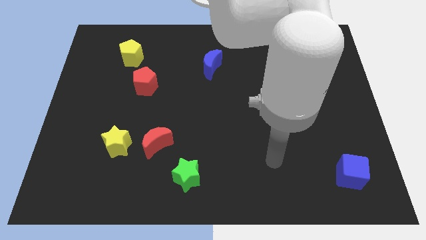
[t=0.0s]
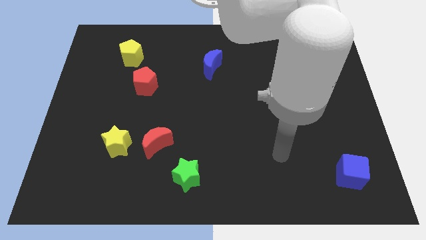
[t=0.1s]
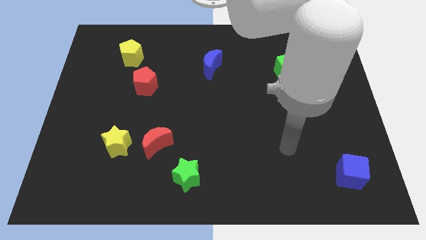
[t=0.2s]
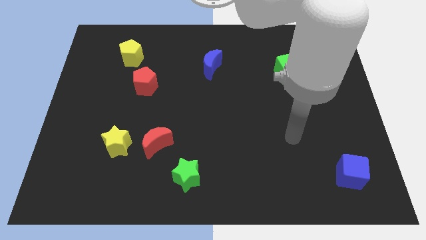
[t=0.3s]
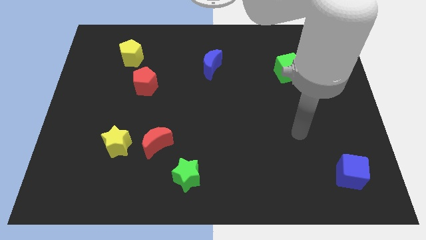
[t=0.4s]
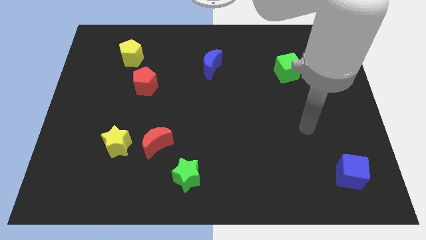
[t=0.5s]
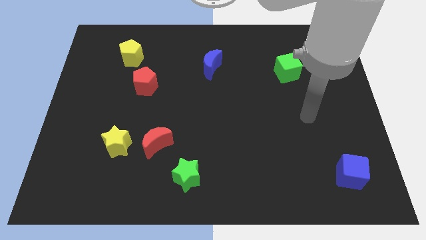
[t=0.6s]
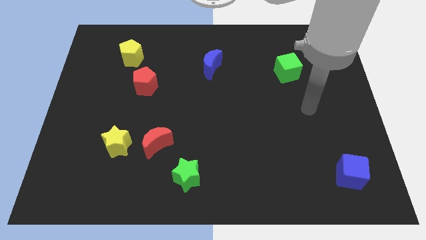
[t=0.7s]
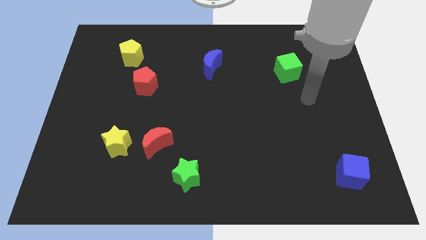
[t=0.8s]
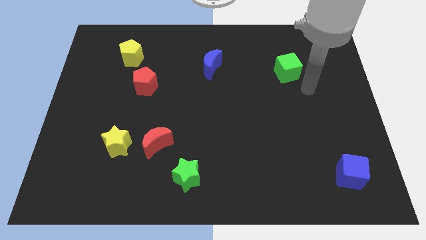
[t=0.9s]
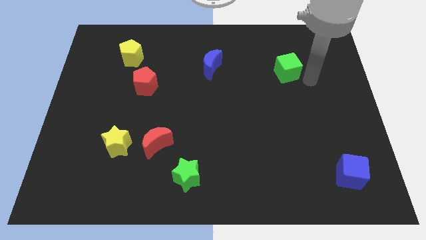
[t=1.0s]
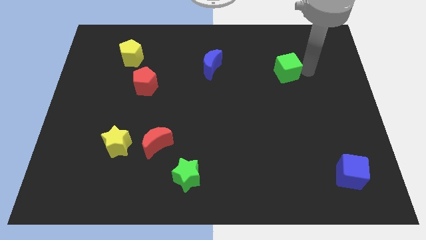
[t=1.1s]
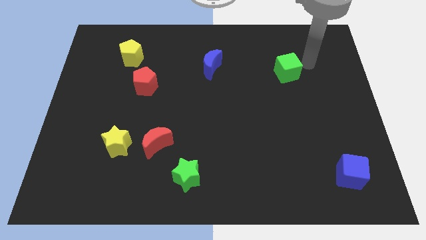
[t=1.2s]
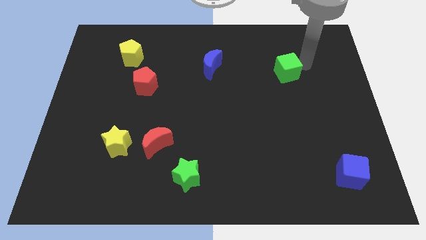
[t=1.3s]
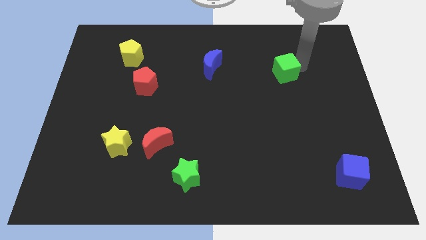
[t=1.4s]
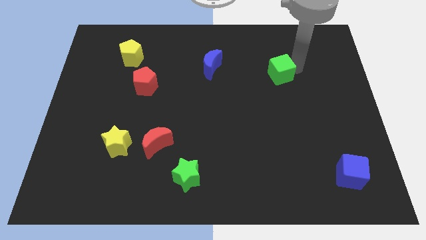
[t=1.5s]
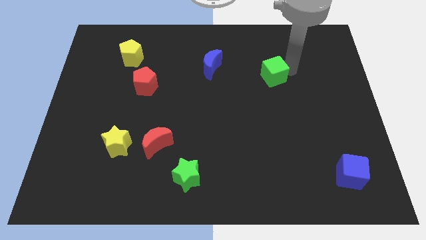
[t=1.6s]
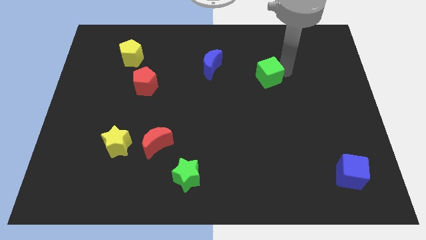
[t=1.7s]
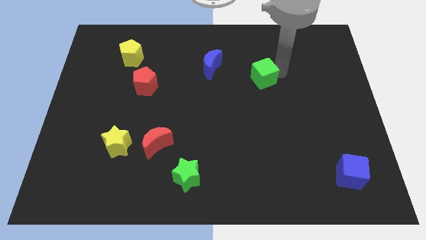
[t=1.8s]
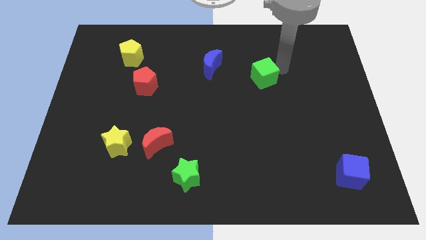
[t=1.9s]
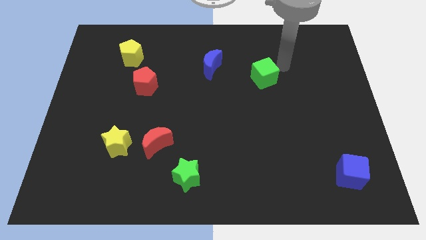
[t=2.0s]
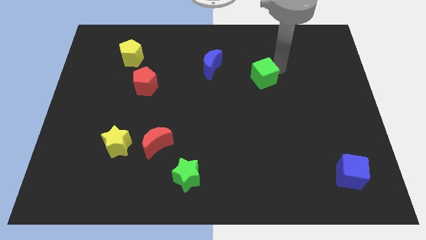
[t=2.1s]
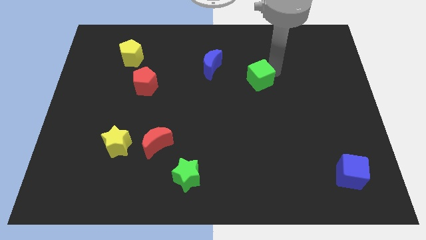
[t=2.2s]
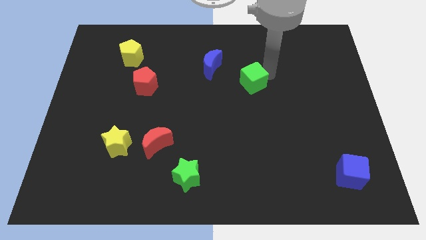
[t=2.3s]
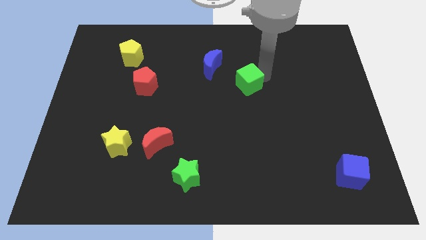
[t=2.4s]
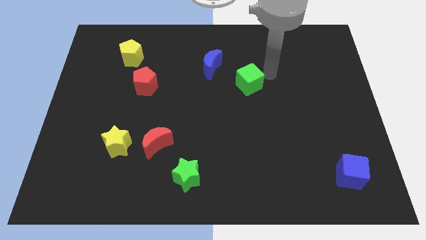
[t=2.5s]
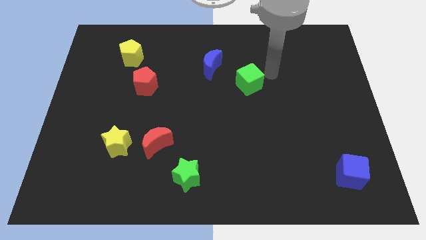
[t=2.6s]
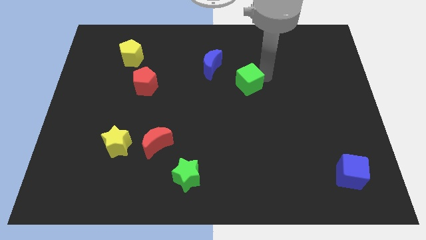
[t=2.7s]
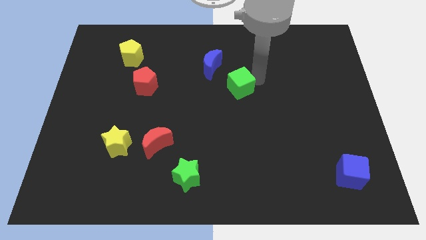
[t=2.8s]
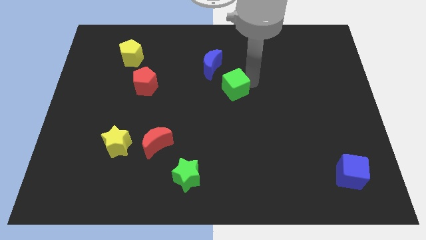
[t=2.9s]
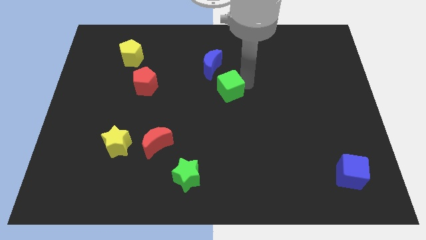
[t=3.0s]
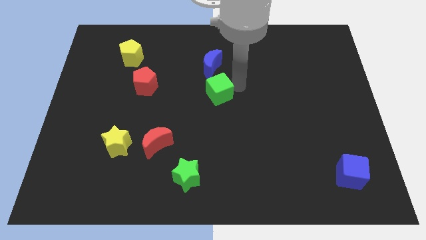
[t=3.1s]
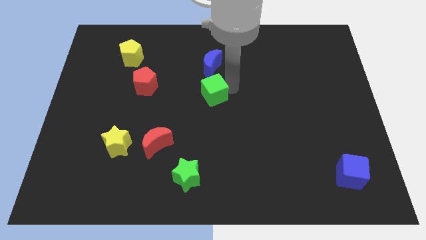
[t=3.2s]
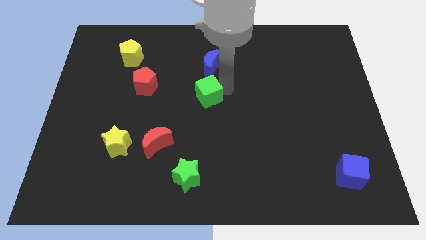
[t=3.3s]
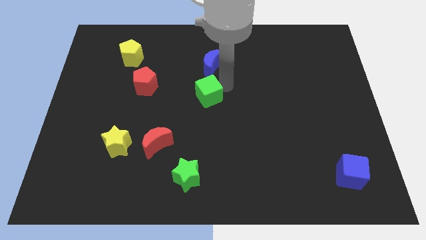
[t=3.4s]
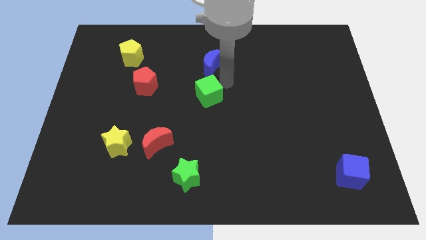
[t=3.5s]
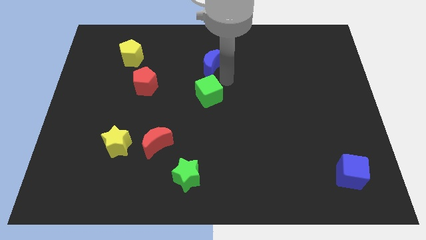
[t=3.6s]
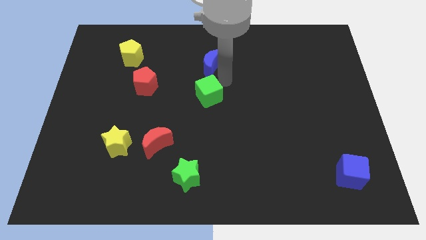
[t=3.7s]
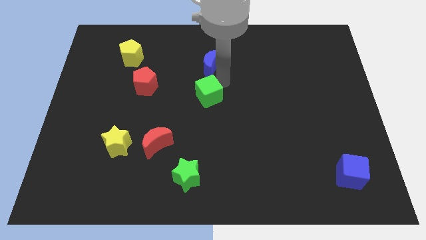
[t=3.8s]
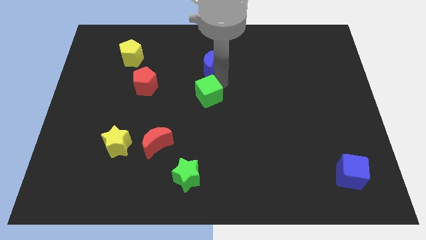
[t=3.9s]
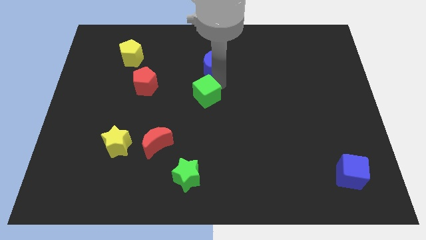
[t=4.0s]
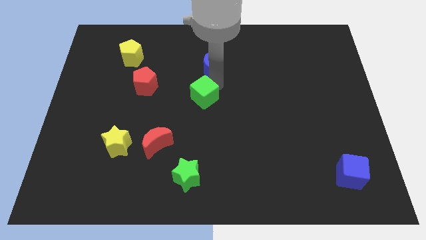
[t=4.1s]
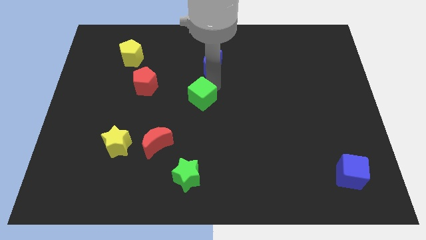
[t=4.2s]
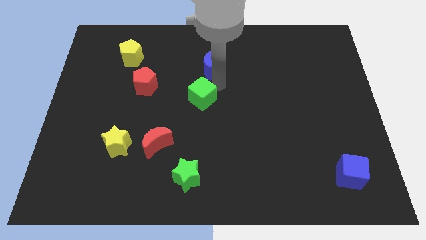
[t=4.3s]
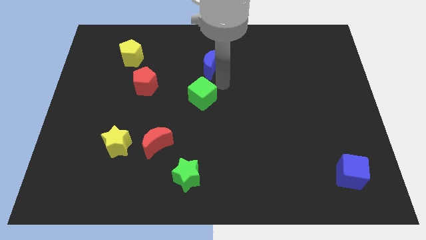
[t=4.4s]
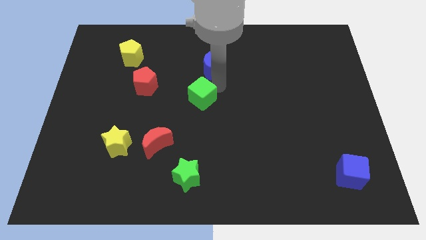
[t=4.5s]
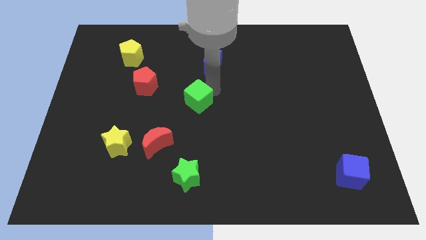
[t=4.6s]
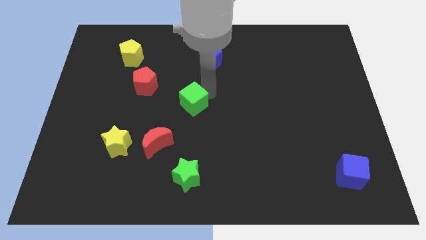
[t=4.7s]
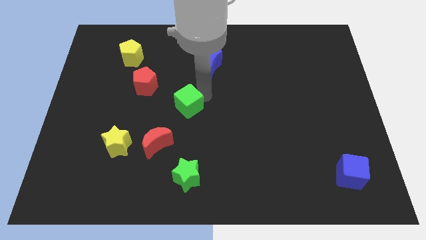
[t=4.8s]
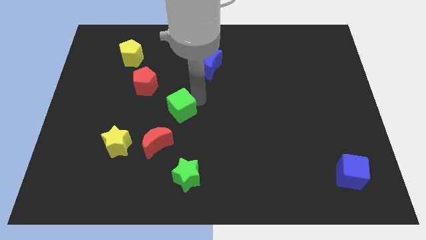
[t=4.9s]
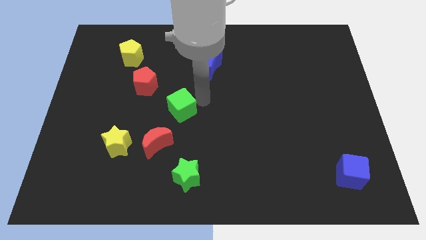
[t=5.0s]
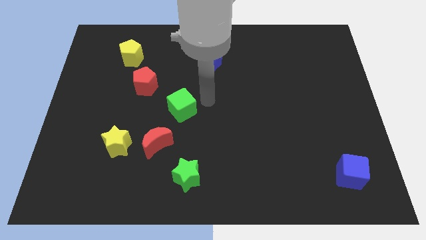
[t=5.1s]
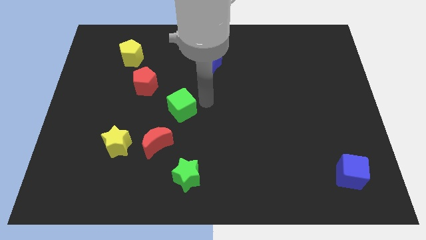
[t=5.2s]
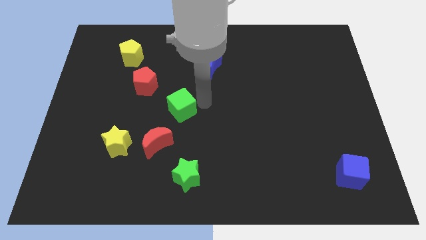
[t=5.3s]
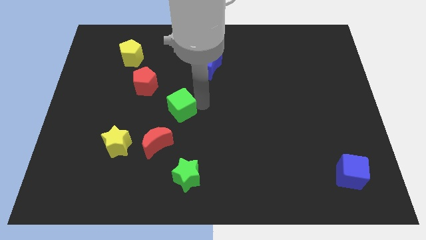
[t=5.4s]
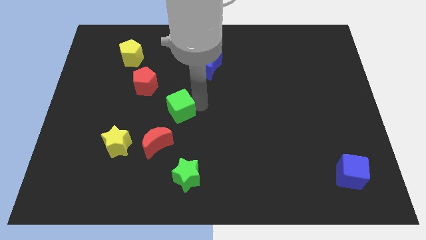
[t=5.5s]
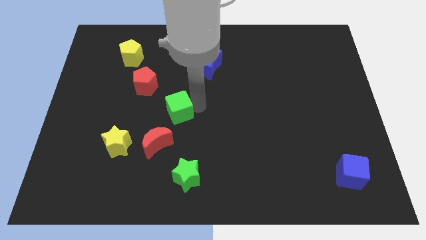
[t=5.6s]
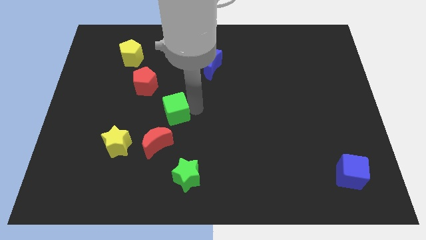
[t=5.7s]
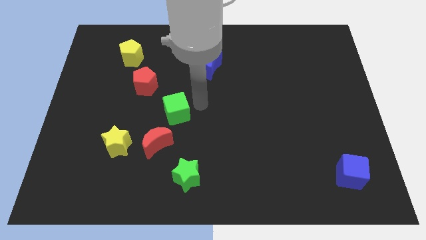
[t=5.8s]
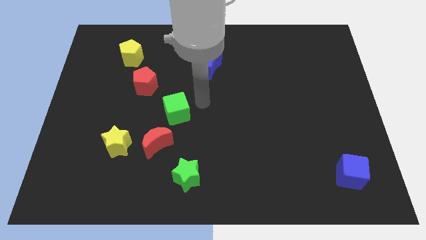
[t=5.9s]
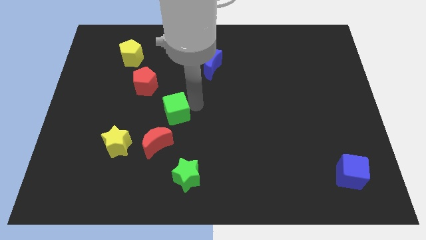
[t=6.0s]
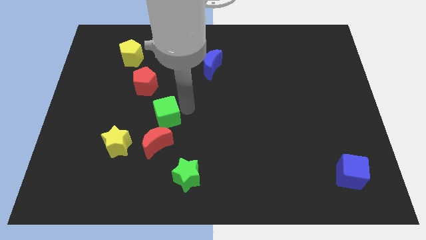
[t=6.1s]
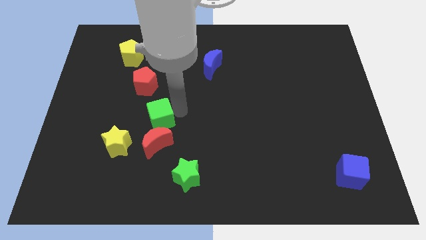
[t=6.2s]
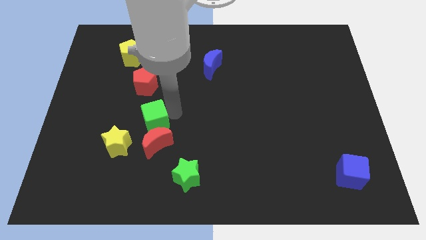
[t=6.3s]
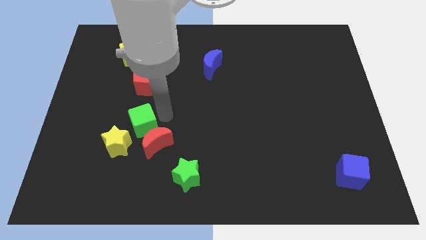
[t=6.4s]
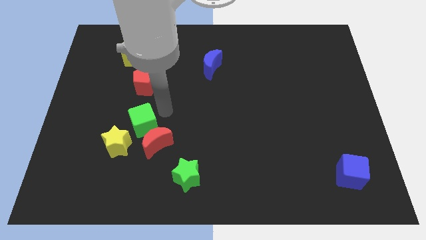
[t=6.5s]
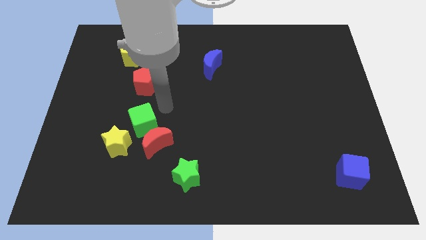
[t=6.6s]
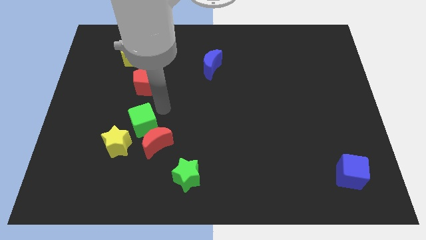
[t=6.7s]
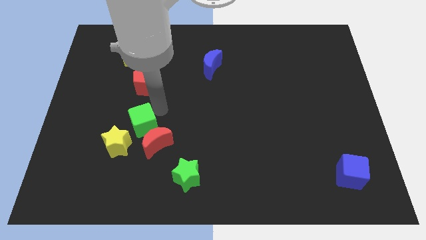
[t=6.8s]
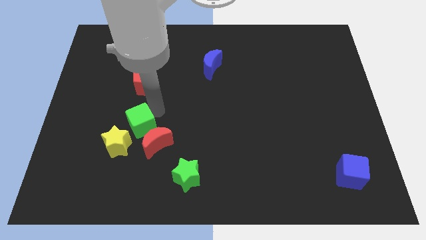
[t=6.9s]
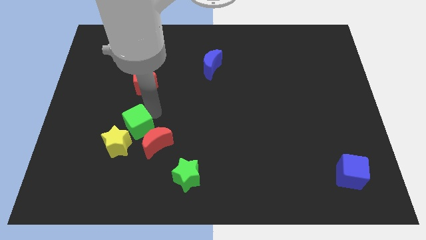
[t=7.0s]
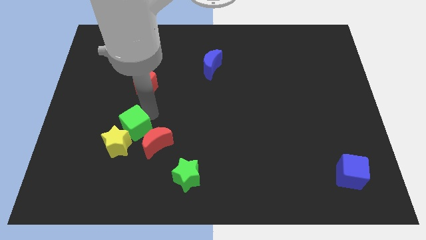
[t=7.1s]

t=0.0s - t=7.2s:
slide the green cube to the yellow star

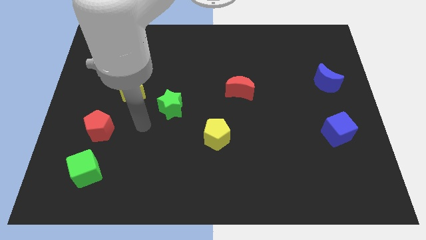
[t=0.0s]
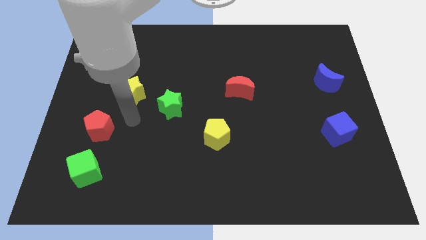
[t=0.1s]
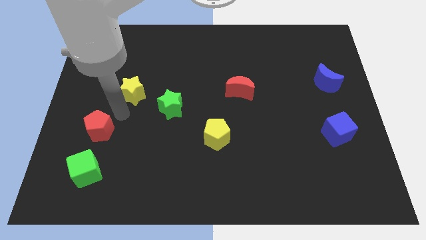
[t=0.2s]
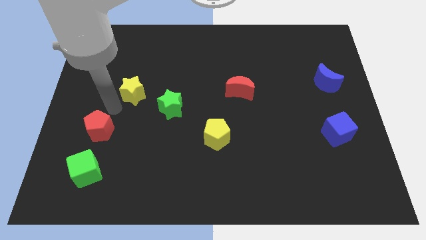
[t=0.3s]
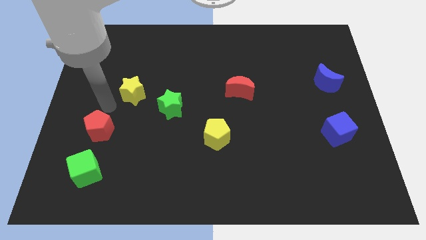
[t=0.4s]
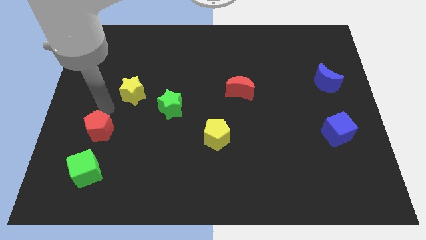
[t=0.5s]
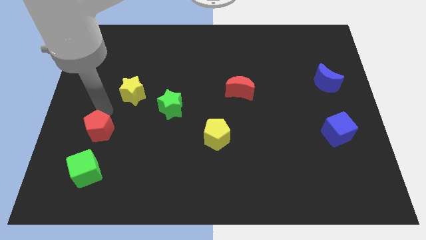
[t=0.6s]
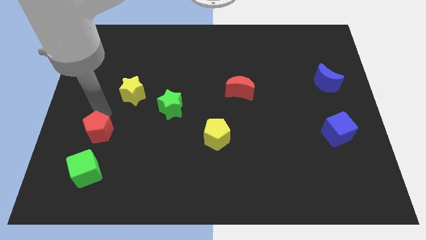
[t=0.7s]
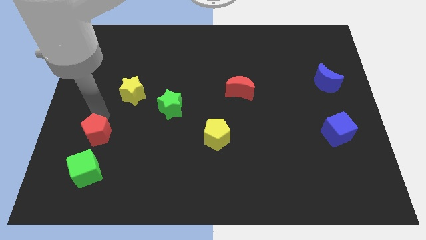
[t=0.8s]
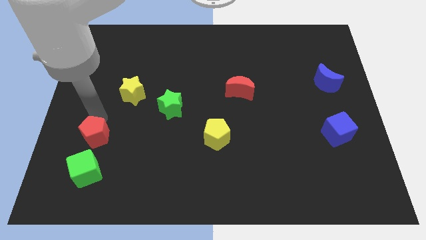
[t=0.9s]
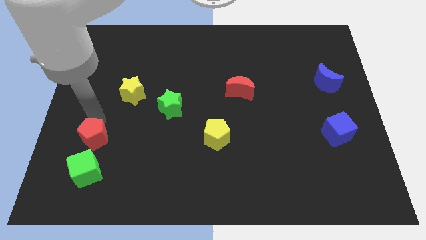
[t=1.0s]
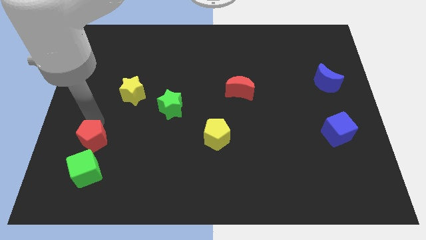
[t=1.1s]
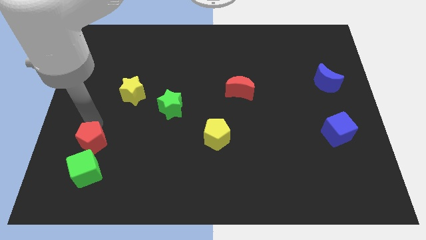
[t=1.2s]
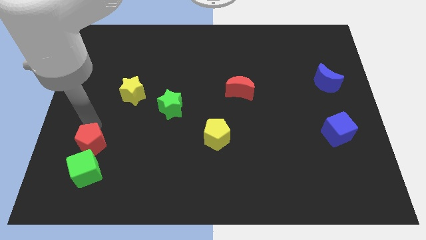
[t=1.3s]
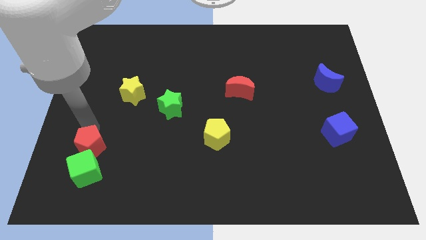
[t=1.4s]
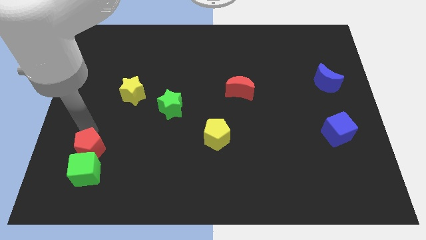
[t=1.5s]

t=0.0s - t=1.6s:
slide the red pentagon next to the green cube
